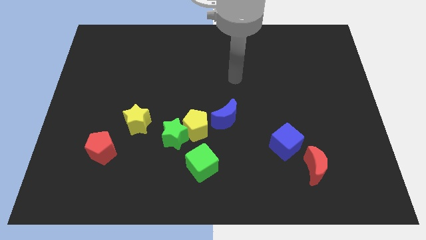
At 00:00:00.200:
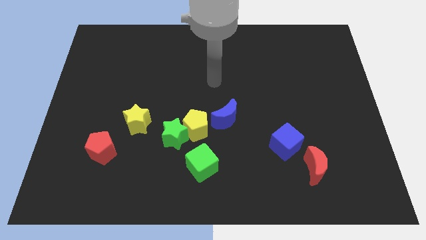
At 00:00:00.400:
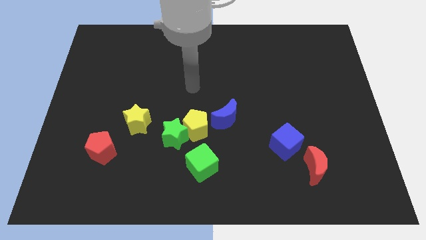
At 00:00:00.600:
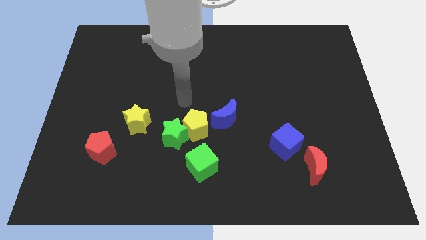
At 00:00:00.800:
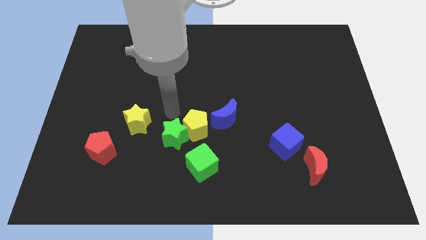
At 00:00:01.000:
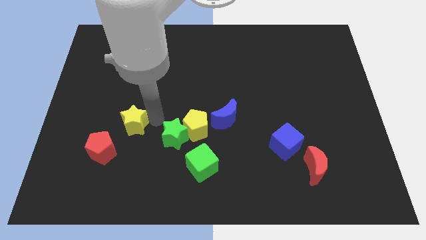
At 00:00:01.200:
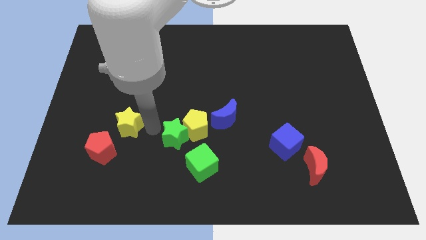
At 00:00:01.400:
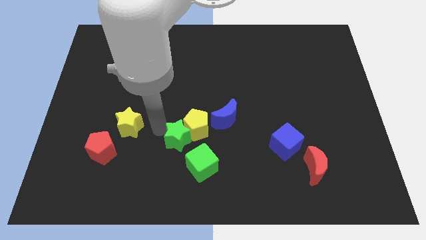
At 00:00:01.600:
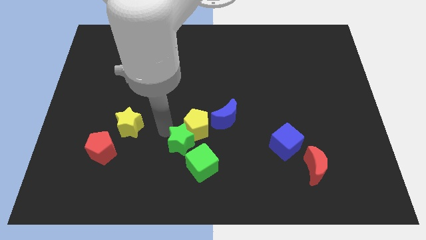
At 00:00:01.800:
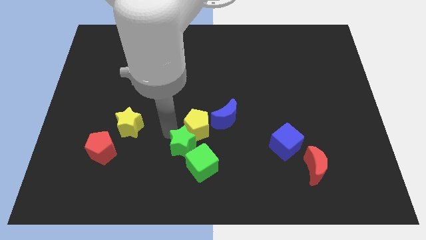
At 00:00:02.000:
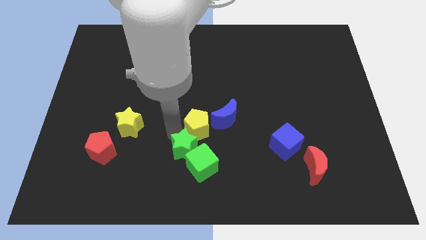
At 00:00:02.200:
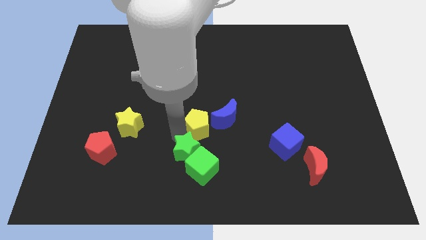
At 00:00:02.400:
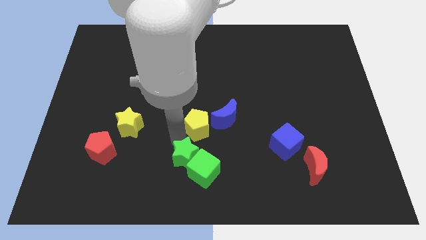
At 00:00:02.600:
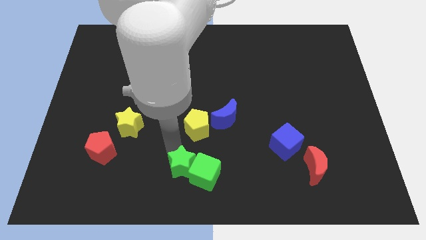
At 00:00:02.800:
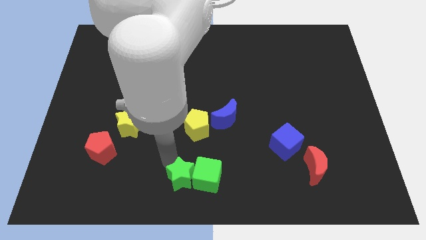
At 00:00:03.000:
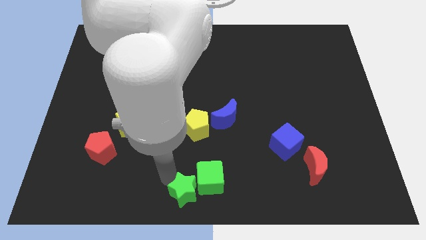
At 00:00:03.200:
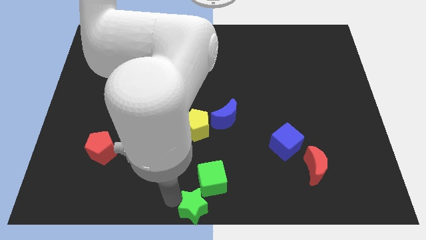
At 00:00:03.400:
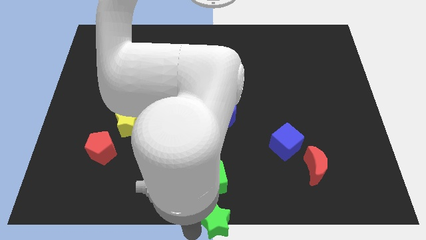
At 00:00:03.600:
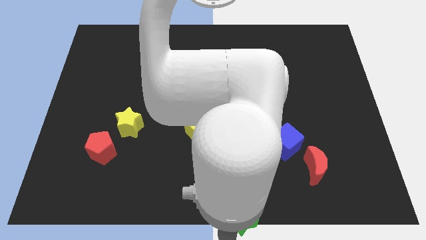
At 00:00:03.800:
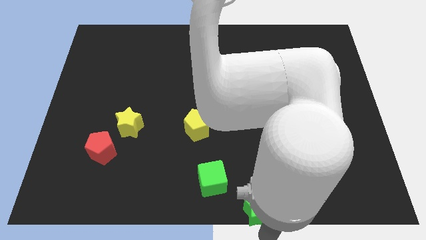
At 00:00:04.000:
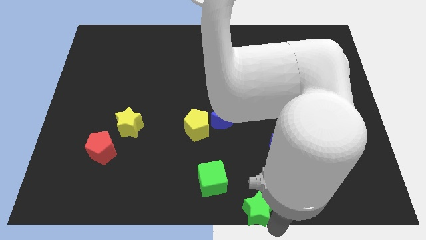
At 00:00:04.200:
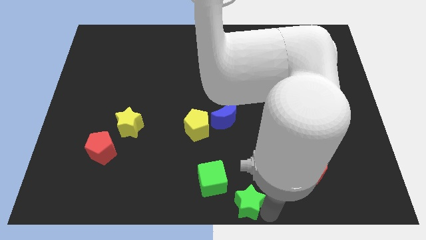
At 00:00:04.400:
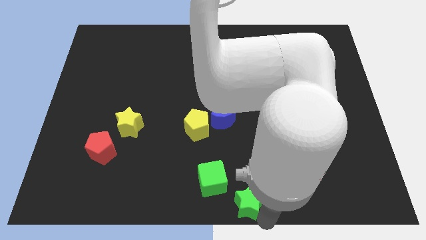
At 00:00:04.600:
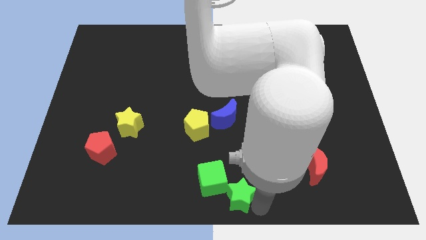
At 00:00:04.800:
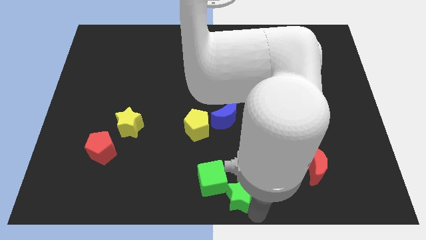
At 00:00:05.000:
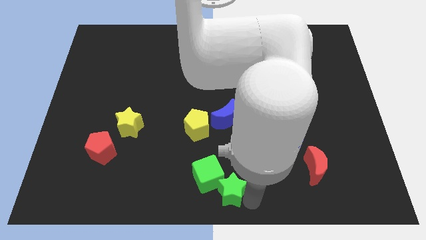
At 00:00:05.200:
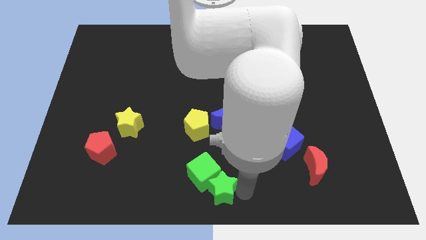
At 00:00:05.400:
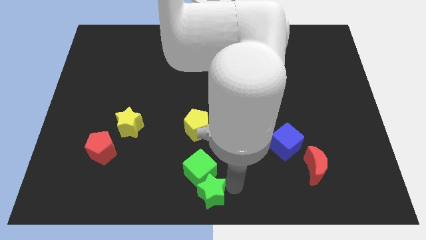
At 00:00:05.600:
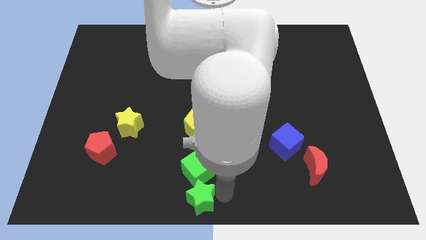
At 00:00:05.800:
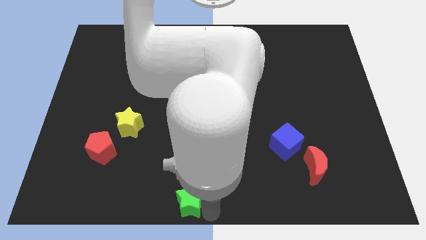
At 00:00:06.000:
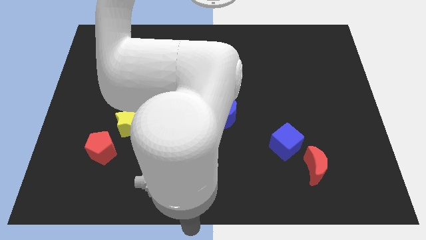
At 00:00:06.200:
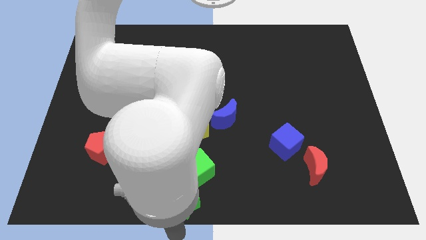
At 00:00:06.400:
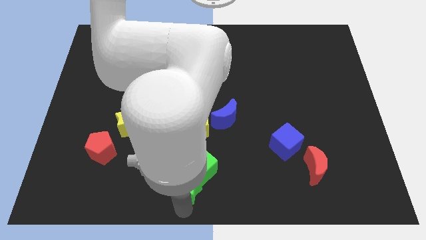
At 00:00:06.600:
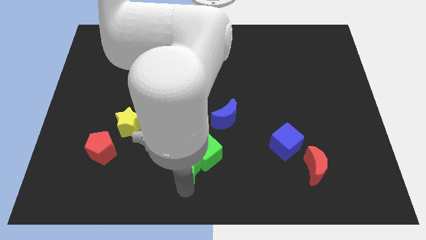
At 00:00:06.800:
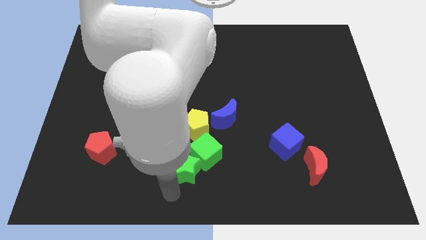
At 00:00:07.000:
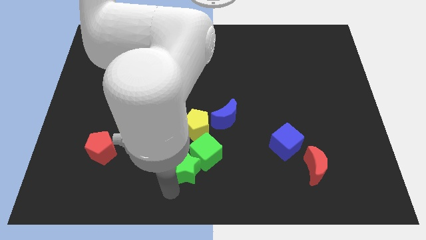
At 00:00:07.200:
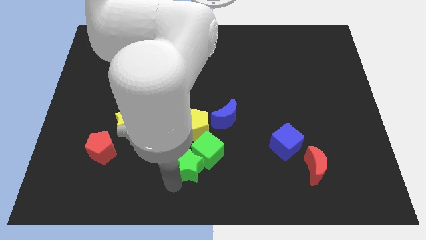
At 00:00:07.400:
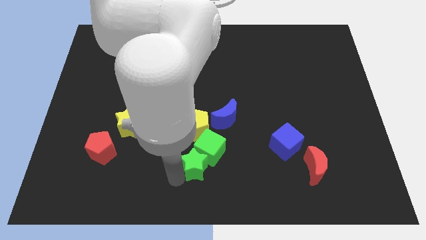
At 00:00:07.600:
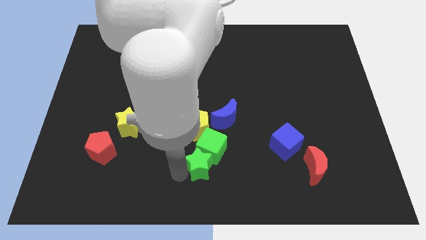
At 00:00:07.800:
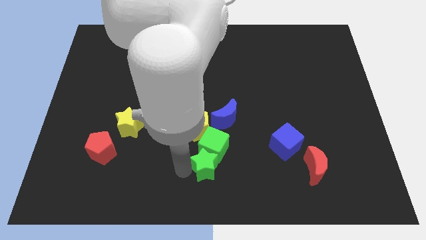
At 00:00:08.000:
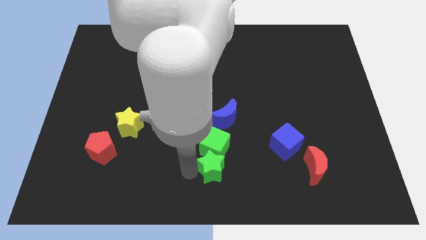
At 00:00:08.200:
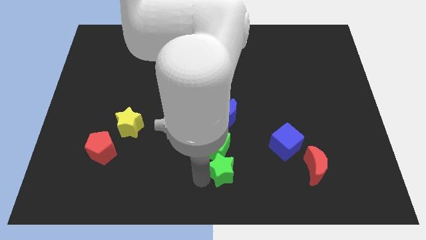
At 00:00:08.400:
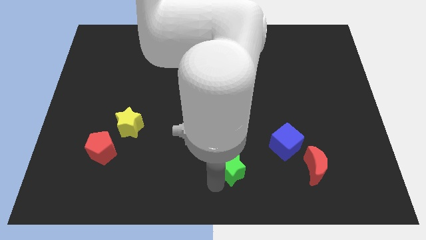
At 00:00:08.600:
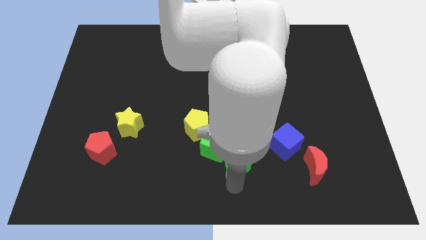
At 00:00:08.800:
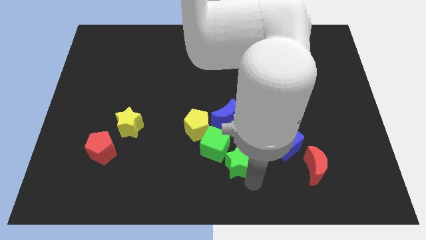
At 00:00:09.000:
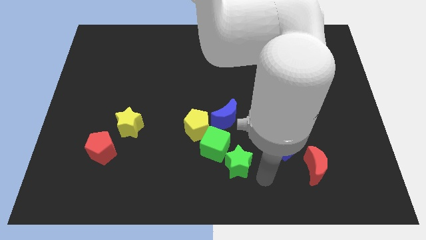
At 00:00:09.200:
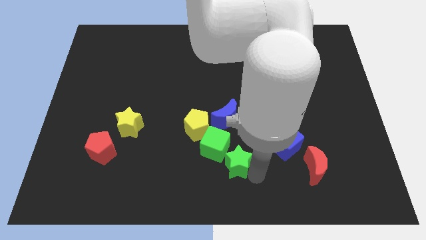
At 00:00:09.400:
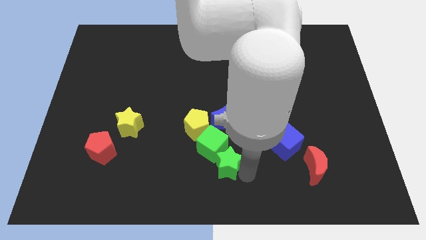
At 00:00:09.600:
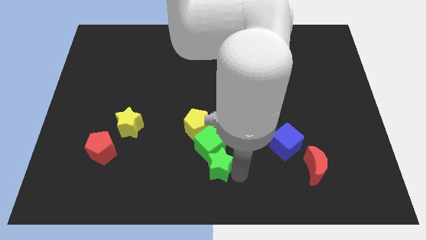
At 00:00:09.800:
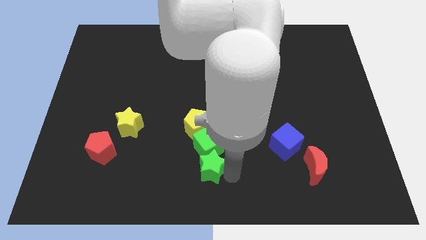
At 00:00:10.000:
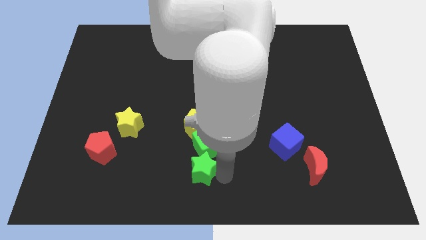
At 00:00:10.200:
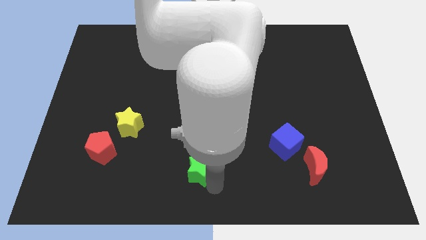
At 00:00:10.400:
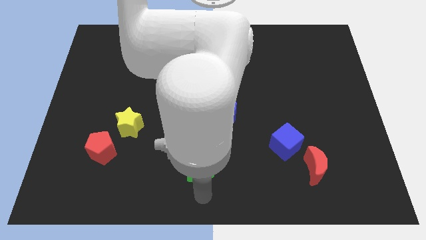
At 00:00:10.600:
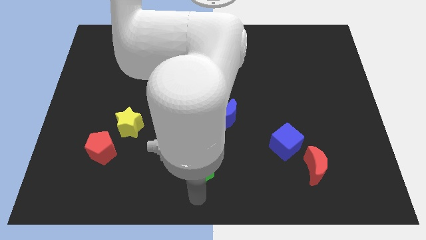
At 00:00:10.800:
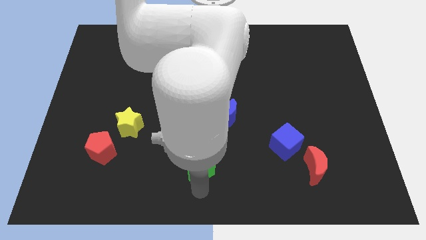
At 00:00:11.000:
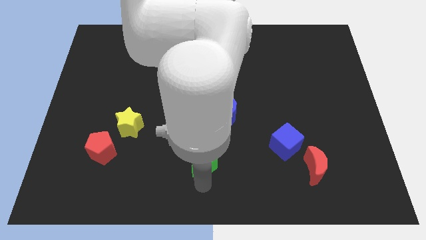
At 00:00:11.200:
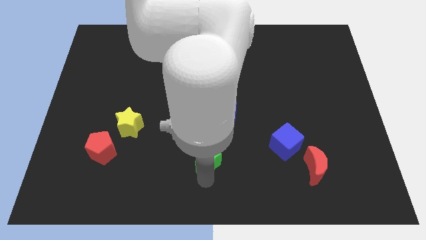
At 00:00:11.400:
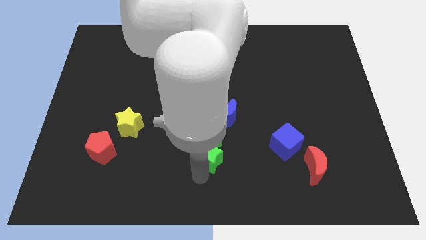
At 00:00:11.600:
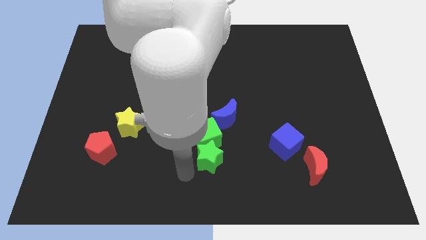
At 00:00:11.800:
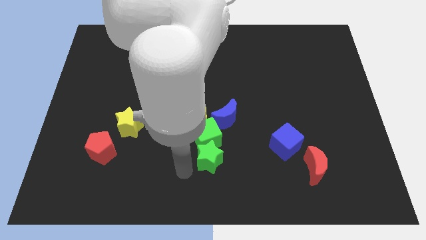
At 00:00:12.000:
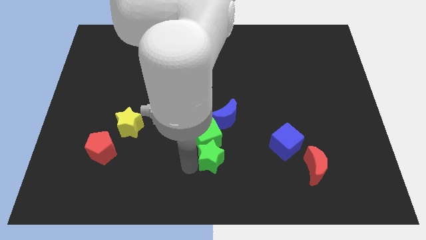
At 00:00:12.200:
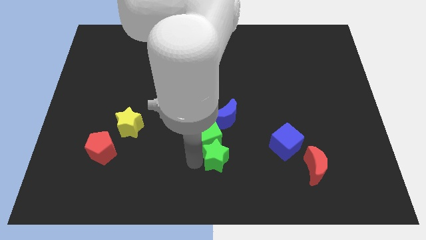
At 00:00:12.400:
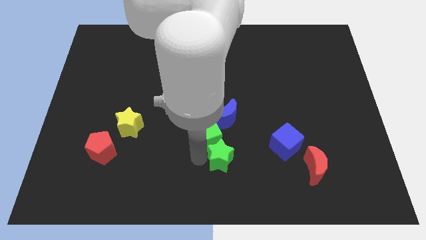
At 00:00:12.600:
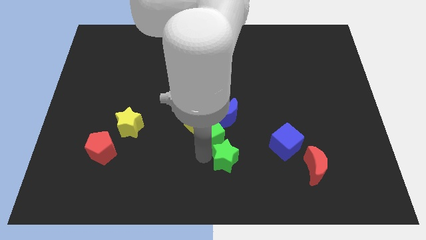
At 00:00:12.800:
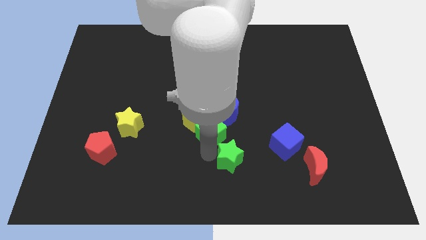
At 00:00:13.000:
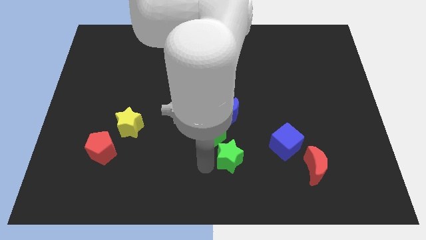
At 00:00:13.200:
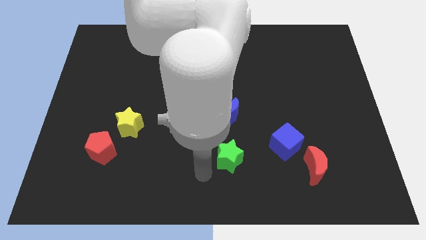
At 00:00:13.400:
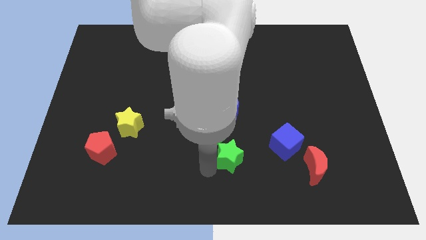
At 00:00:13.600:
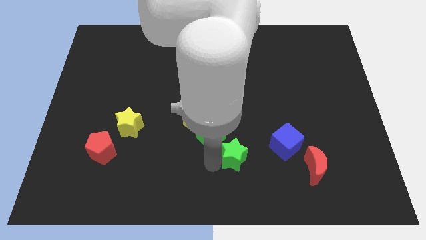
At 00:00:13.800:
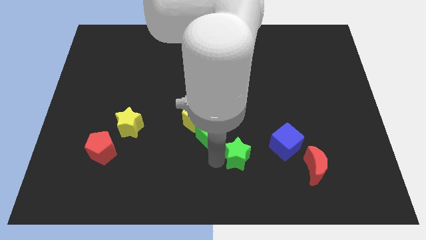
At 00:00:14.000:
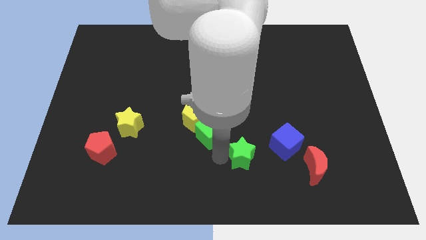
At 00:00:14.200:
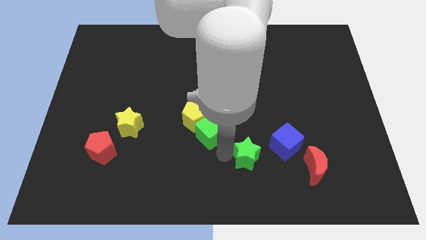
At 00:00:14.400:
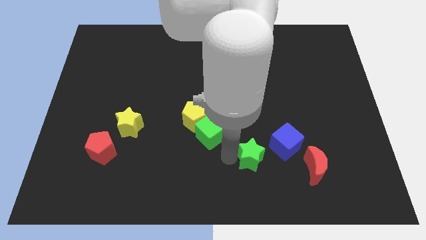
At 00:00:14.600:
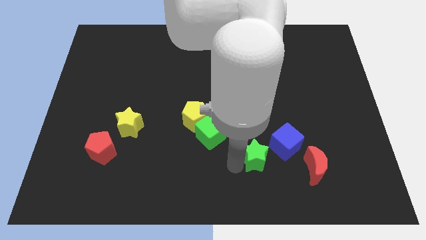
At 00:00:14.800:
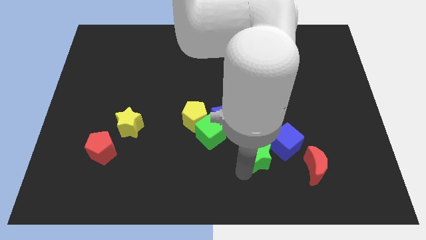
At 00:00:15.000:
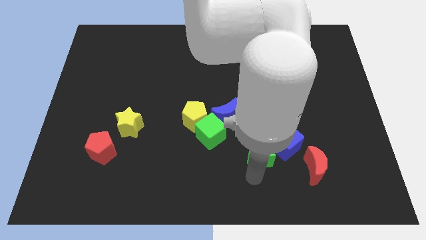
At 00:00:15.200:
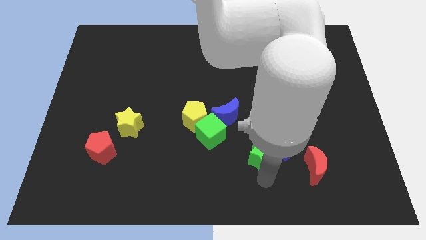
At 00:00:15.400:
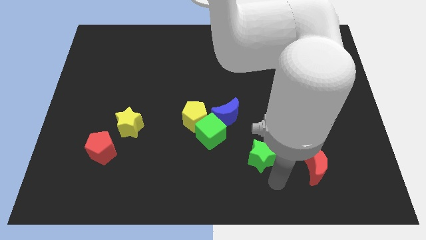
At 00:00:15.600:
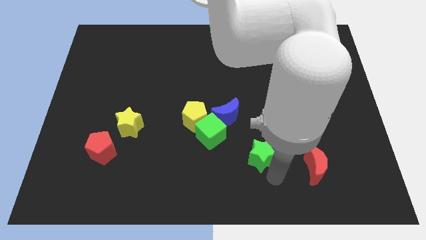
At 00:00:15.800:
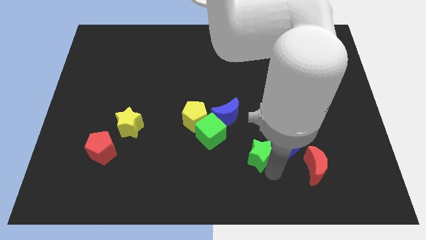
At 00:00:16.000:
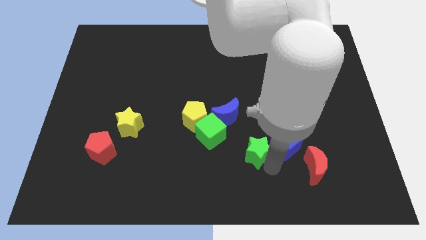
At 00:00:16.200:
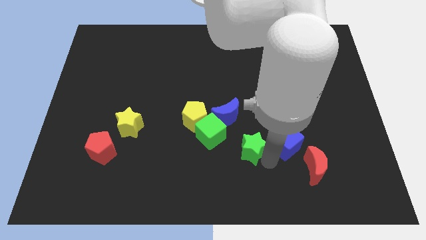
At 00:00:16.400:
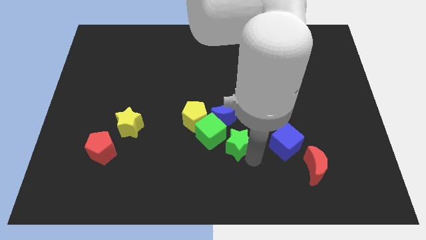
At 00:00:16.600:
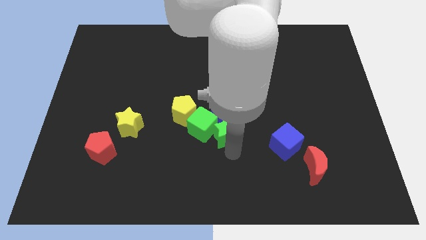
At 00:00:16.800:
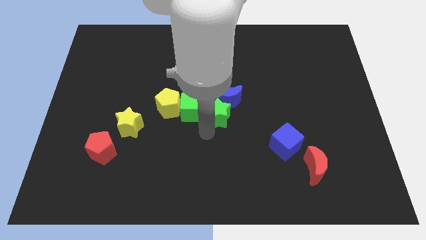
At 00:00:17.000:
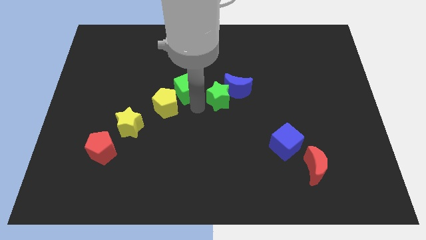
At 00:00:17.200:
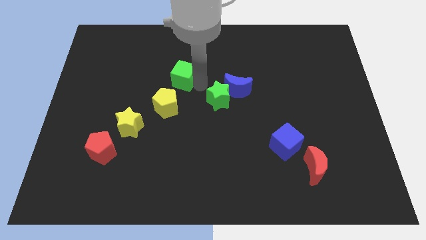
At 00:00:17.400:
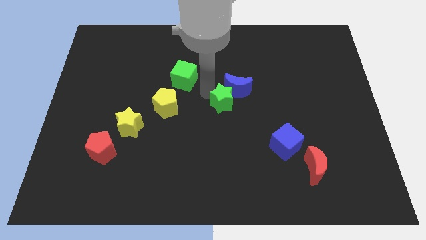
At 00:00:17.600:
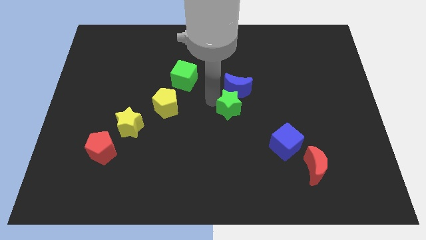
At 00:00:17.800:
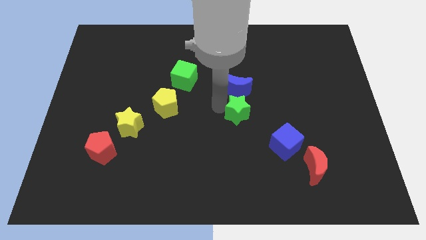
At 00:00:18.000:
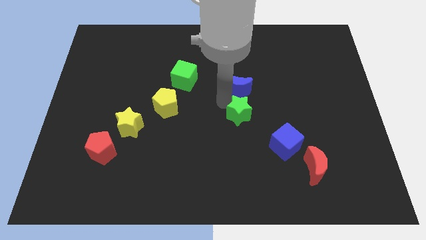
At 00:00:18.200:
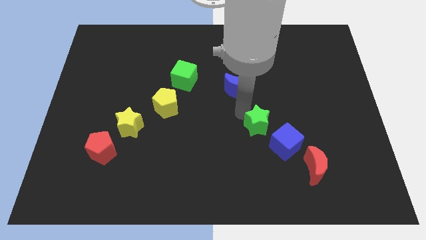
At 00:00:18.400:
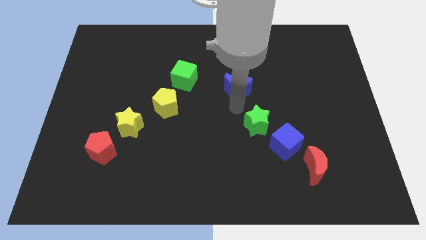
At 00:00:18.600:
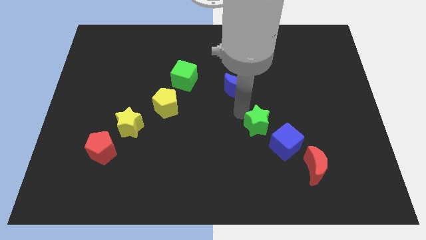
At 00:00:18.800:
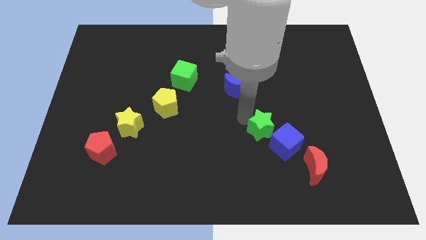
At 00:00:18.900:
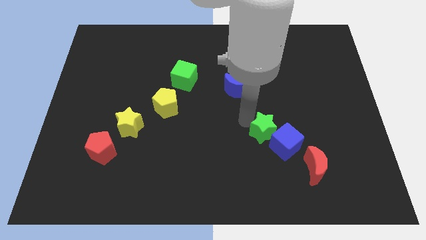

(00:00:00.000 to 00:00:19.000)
move the green star to the blue cube
